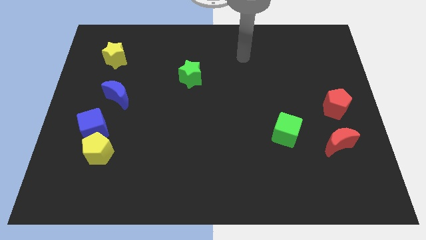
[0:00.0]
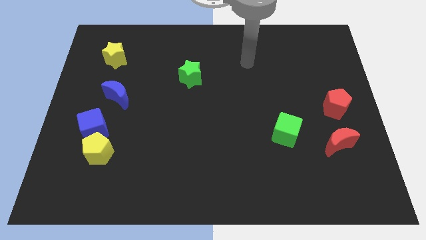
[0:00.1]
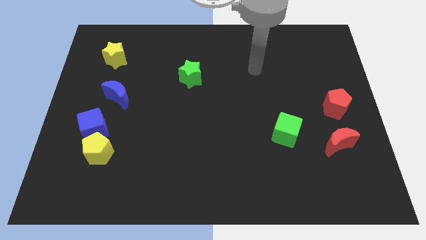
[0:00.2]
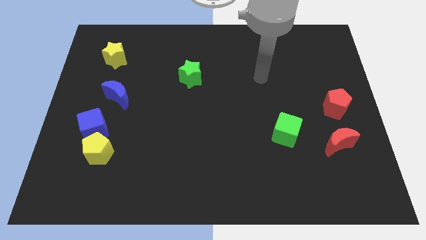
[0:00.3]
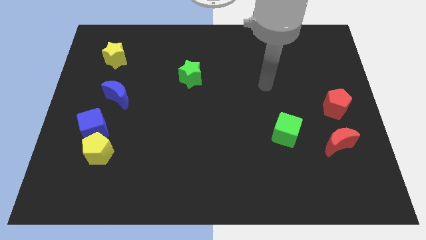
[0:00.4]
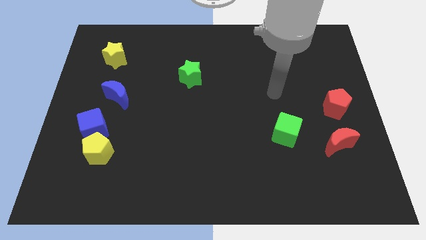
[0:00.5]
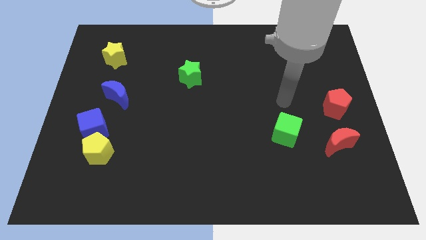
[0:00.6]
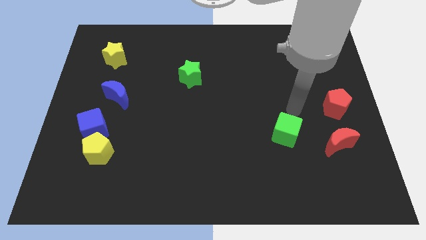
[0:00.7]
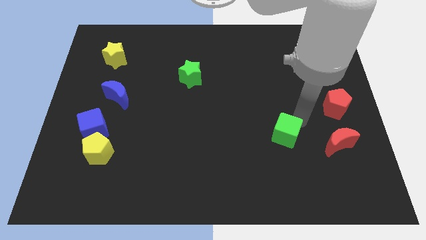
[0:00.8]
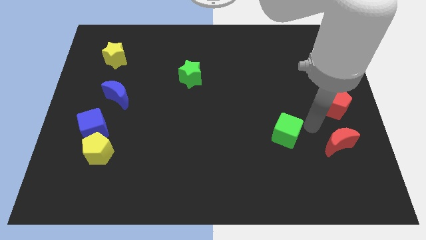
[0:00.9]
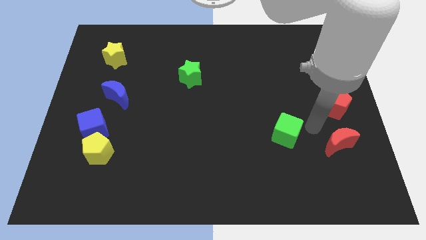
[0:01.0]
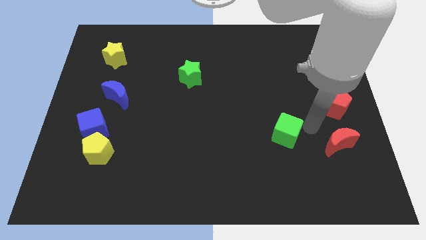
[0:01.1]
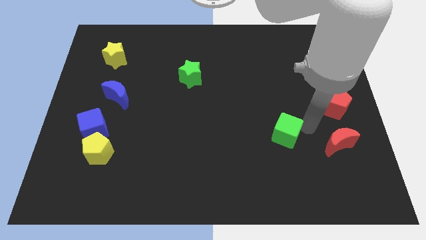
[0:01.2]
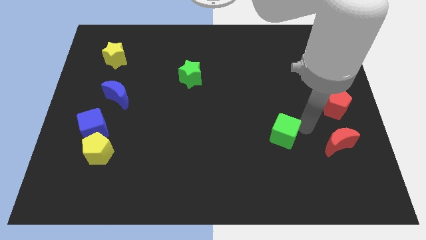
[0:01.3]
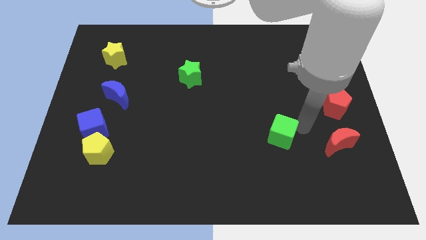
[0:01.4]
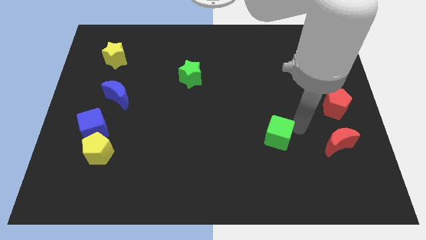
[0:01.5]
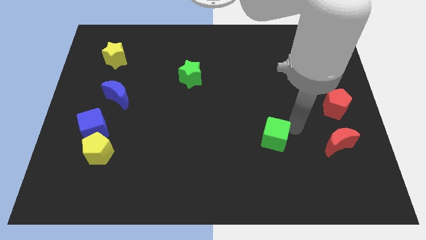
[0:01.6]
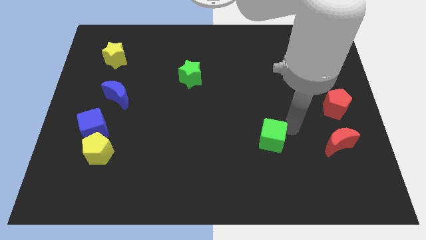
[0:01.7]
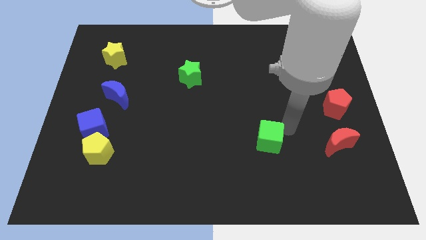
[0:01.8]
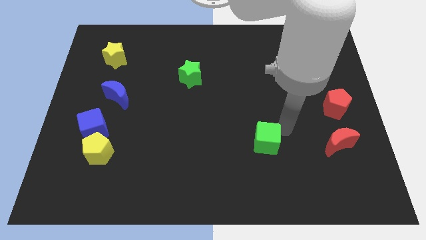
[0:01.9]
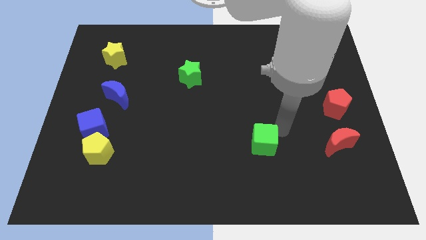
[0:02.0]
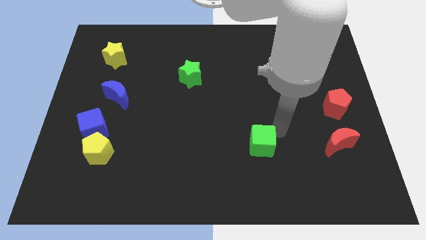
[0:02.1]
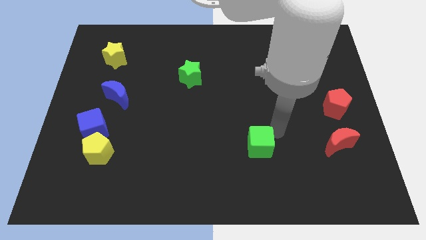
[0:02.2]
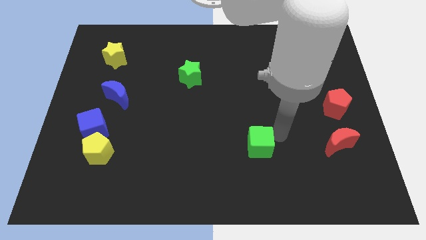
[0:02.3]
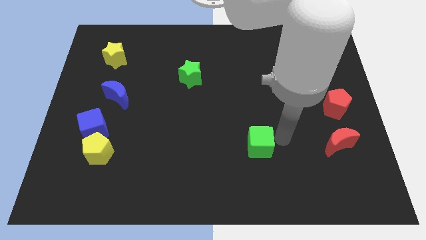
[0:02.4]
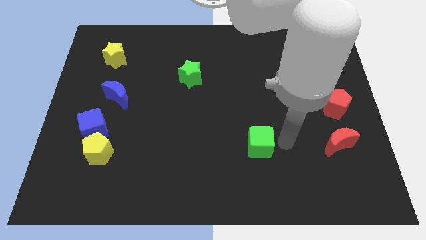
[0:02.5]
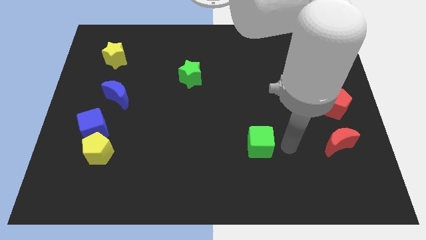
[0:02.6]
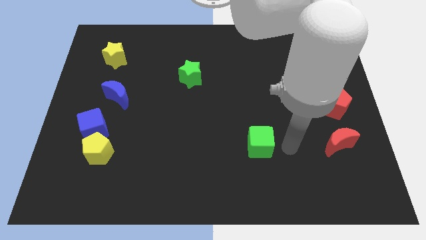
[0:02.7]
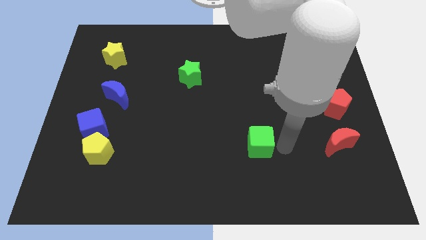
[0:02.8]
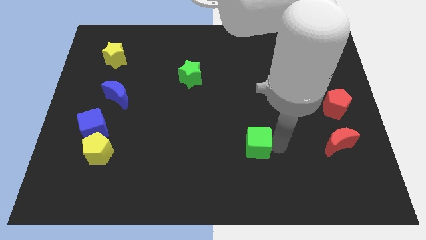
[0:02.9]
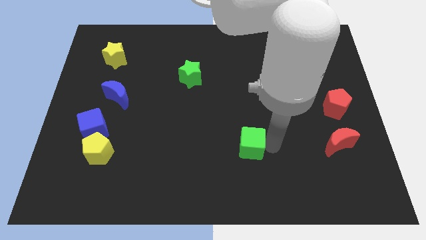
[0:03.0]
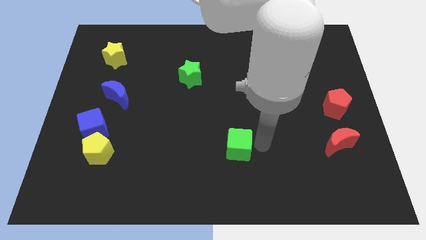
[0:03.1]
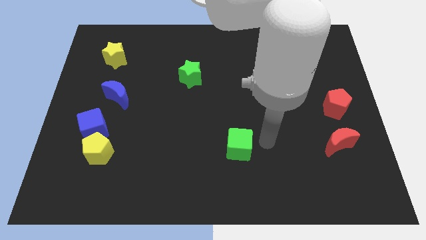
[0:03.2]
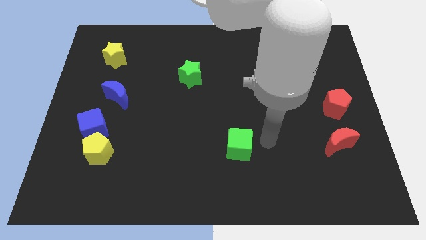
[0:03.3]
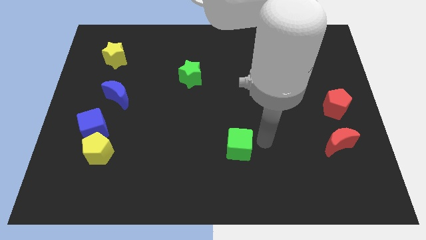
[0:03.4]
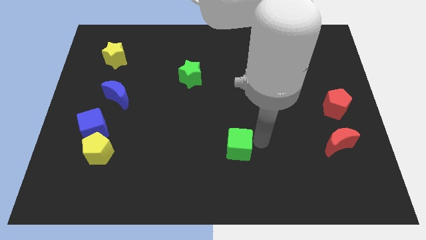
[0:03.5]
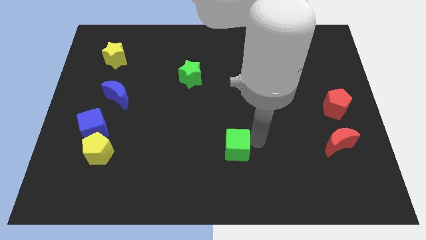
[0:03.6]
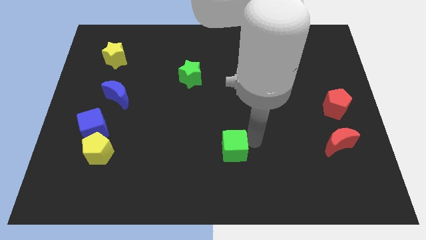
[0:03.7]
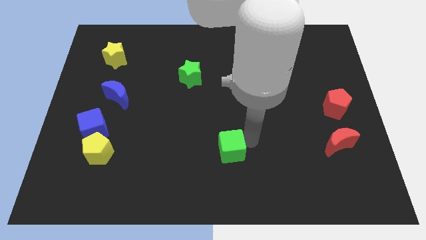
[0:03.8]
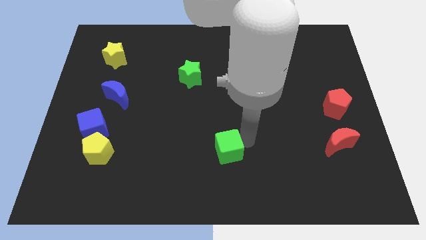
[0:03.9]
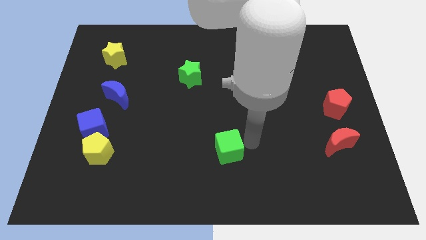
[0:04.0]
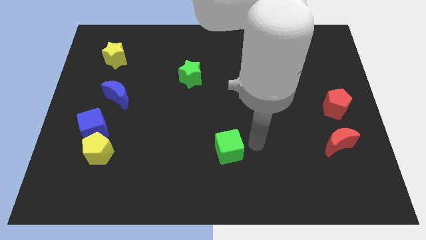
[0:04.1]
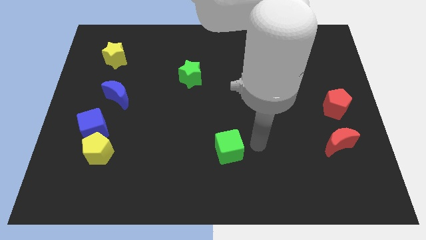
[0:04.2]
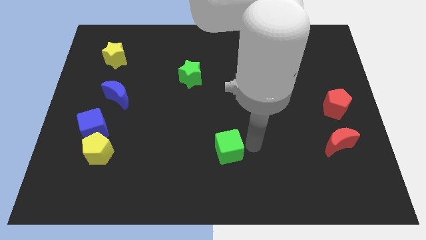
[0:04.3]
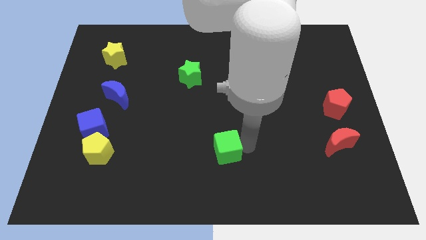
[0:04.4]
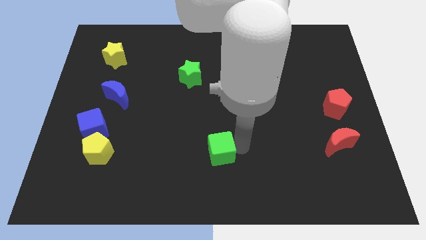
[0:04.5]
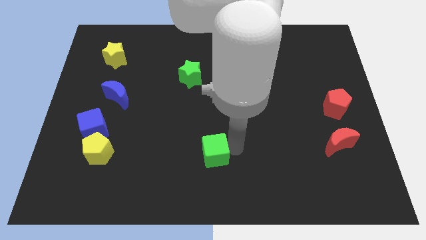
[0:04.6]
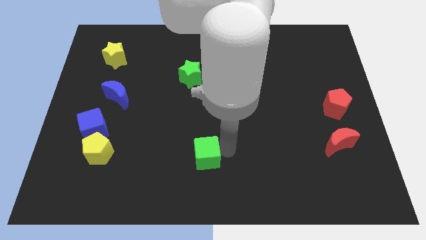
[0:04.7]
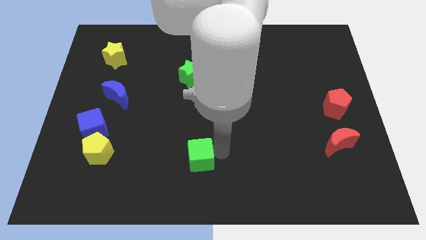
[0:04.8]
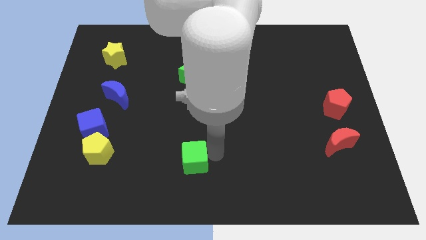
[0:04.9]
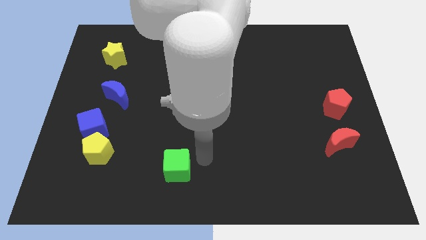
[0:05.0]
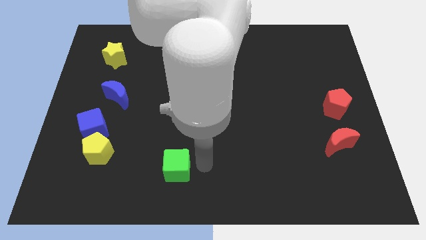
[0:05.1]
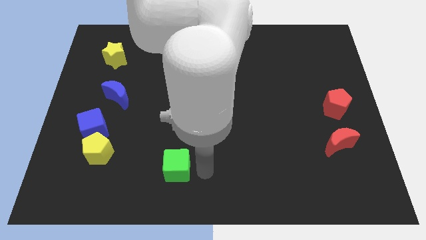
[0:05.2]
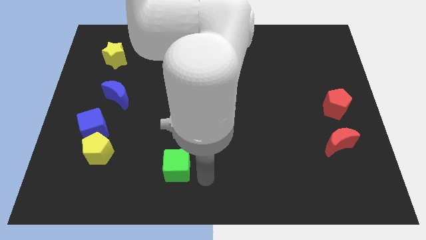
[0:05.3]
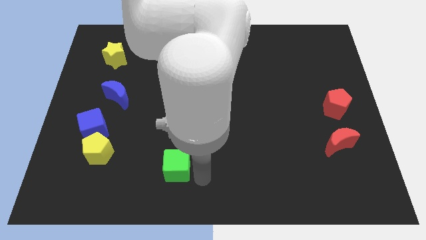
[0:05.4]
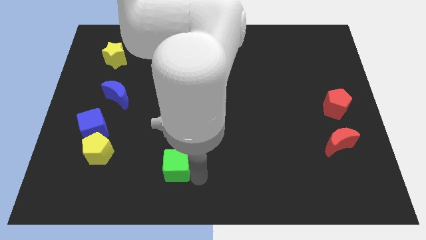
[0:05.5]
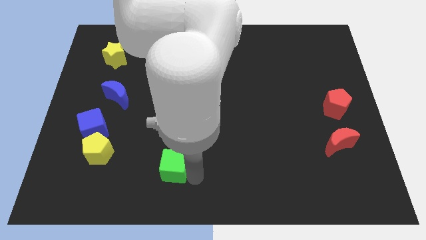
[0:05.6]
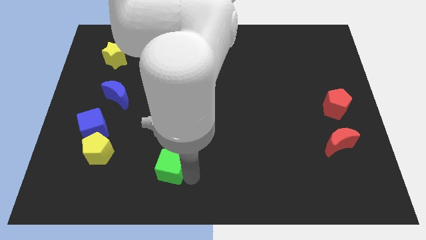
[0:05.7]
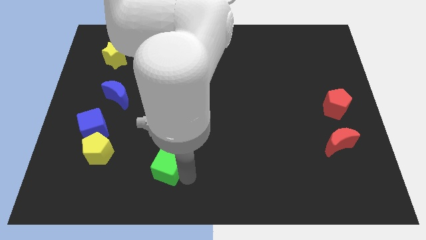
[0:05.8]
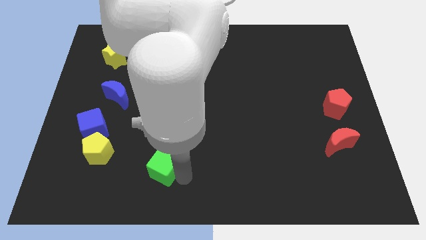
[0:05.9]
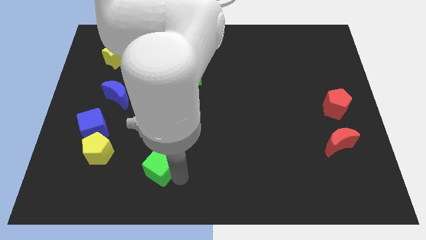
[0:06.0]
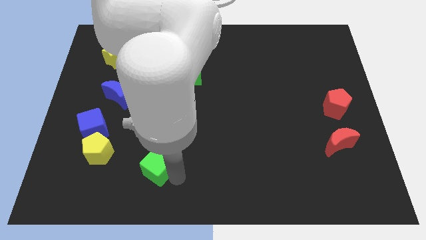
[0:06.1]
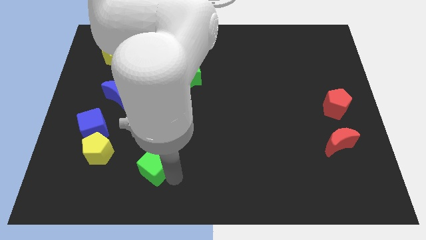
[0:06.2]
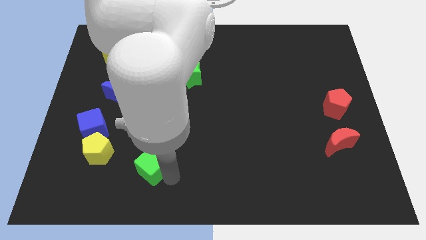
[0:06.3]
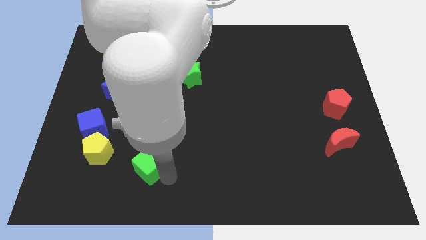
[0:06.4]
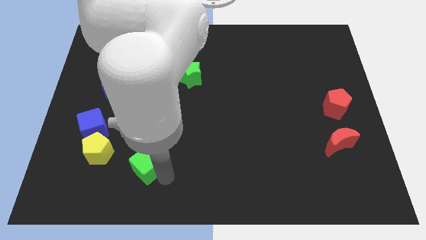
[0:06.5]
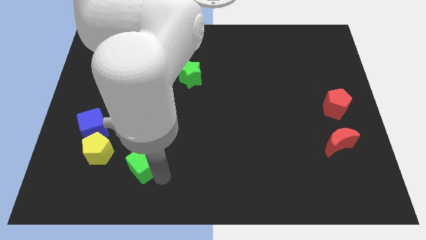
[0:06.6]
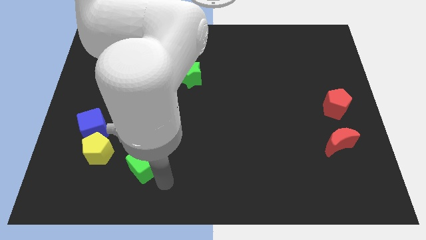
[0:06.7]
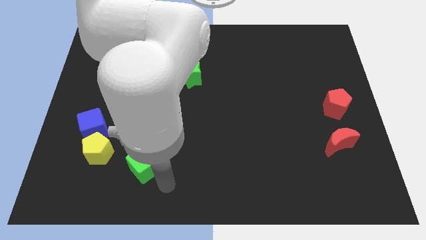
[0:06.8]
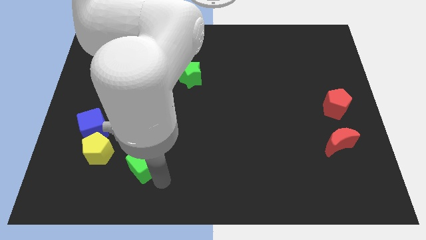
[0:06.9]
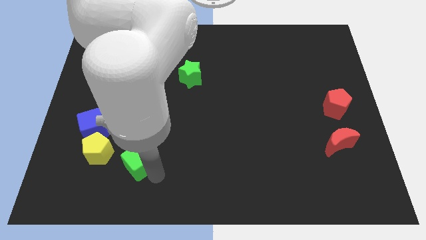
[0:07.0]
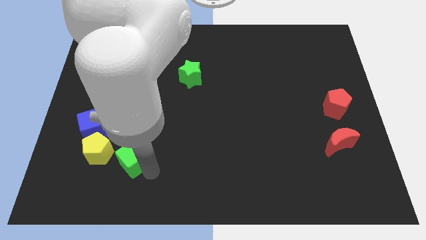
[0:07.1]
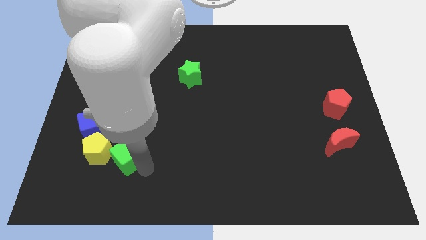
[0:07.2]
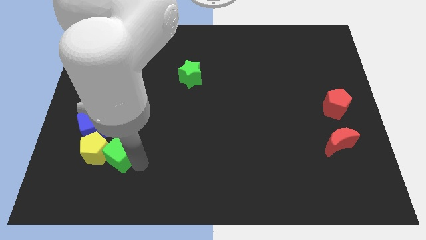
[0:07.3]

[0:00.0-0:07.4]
move the green cube next to the yellow pentagon
